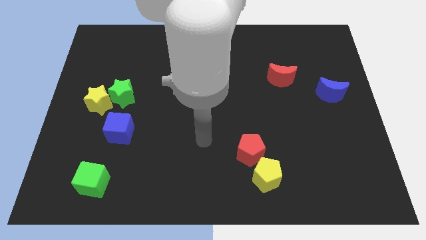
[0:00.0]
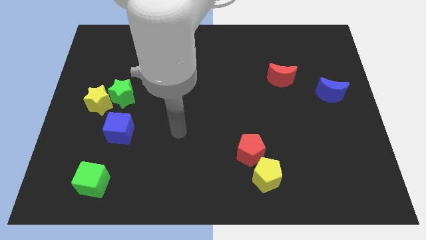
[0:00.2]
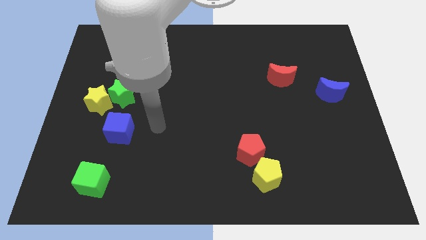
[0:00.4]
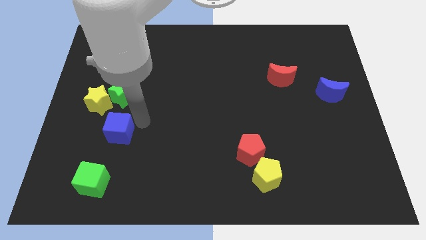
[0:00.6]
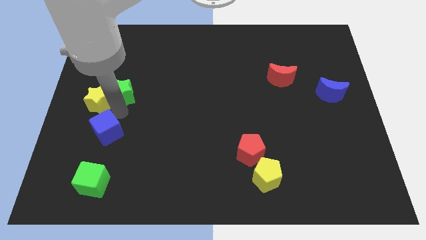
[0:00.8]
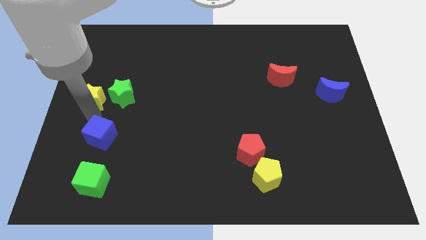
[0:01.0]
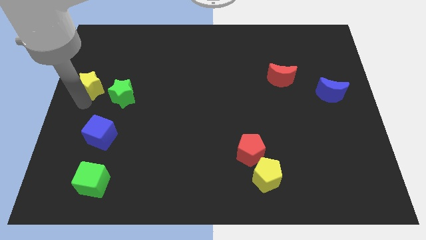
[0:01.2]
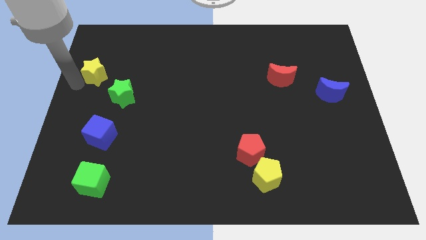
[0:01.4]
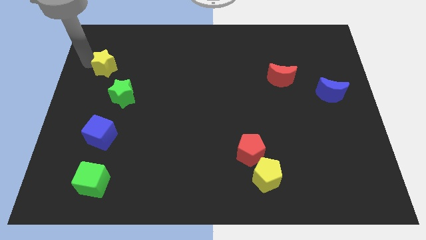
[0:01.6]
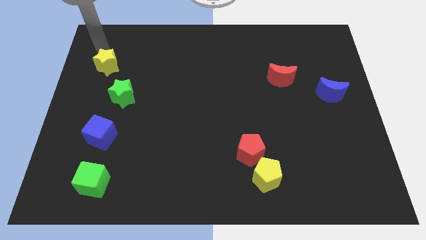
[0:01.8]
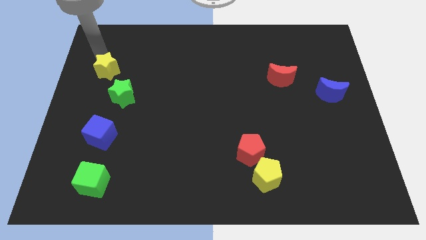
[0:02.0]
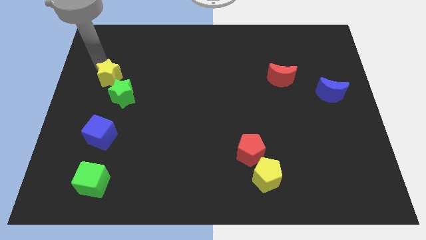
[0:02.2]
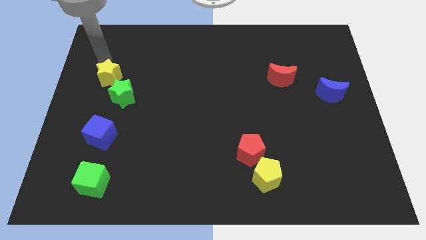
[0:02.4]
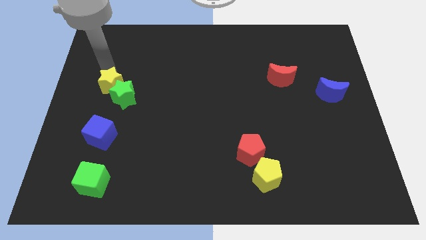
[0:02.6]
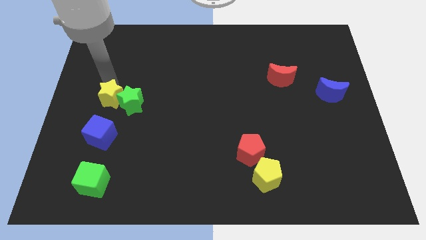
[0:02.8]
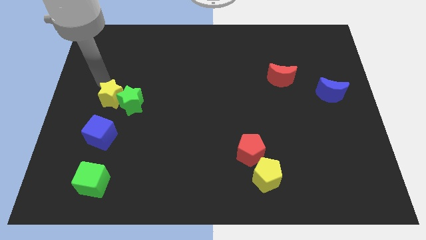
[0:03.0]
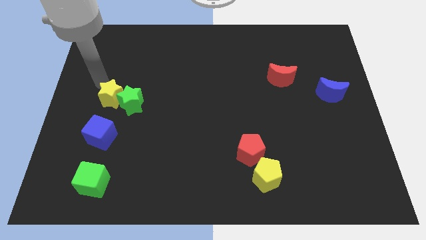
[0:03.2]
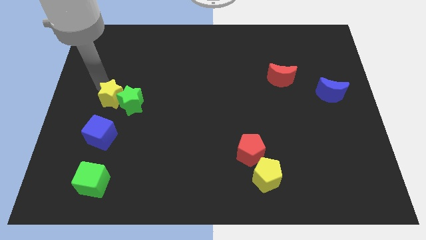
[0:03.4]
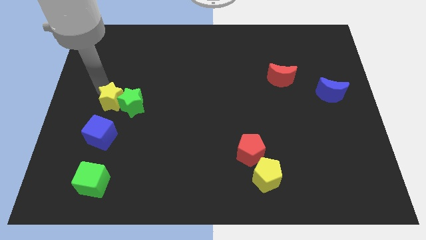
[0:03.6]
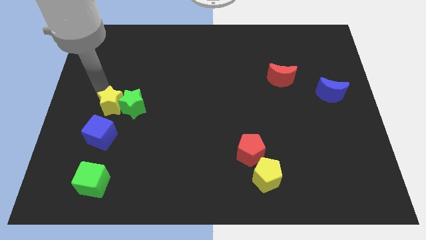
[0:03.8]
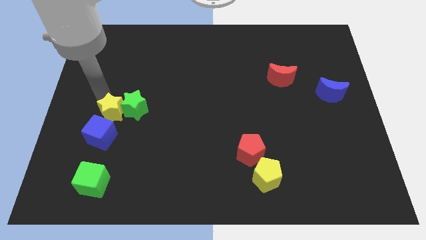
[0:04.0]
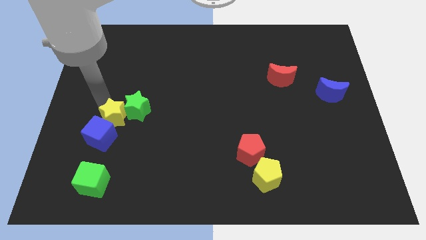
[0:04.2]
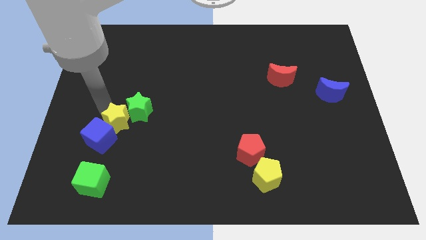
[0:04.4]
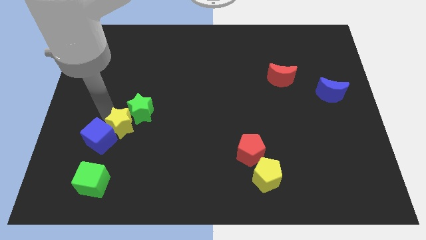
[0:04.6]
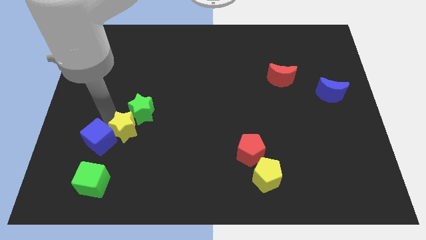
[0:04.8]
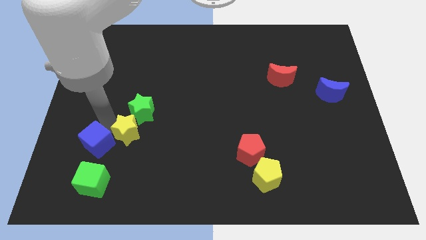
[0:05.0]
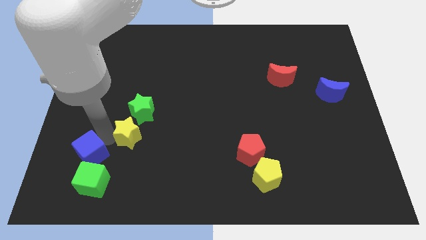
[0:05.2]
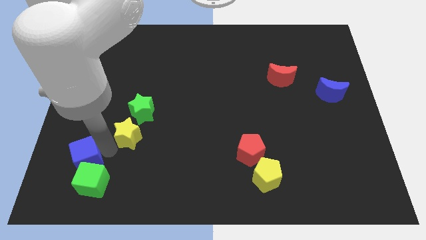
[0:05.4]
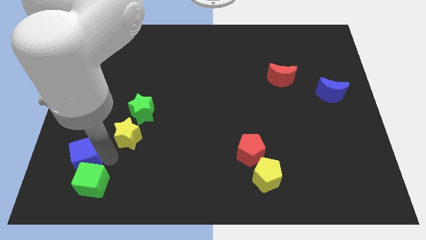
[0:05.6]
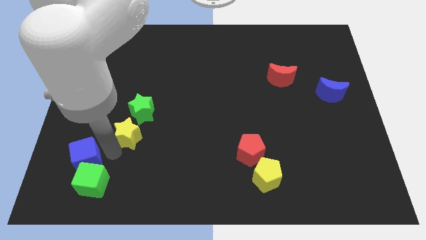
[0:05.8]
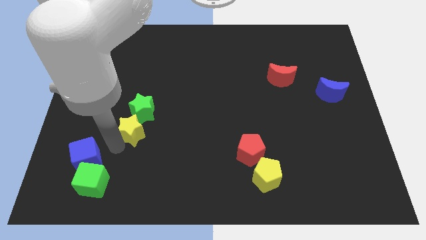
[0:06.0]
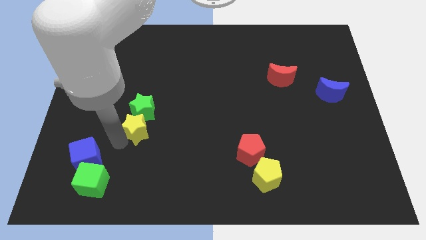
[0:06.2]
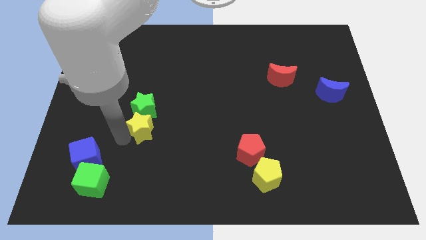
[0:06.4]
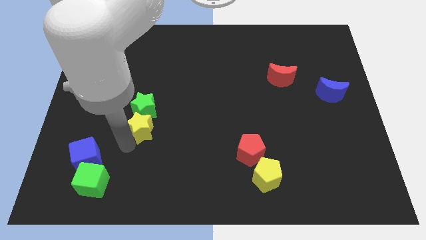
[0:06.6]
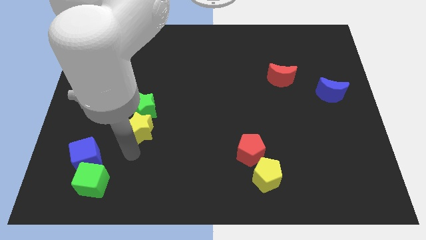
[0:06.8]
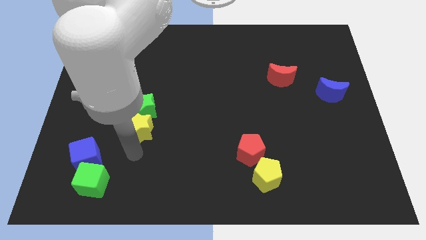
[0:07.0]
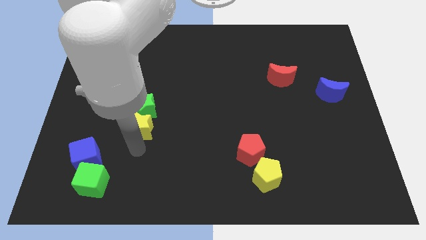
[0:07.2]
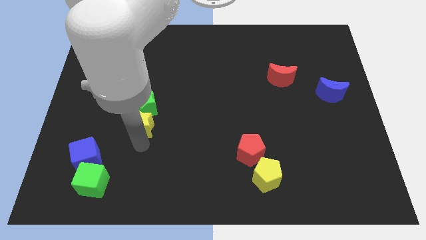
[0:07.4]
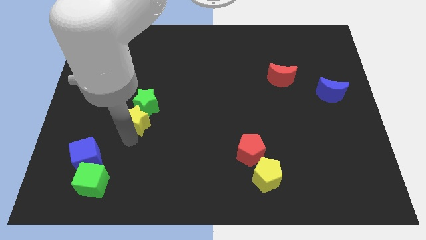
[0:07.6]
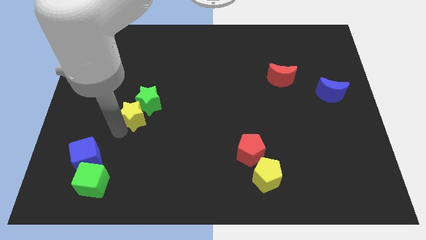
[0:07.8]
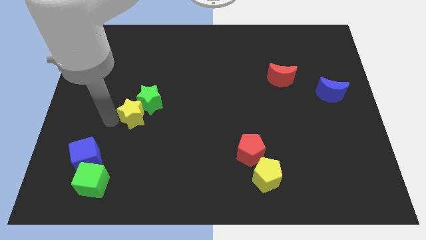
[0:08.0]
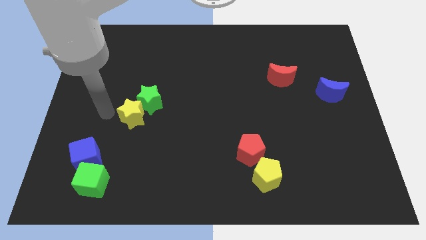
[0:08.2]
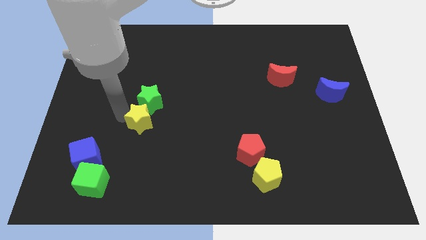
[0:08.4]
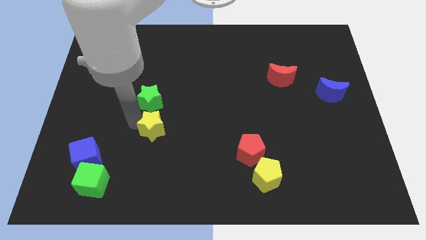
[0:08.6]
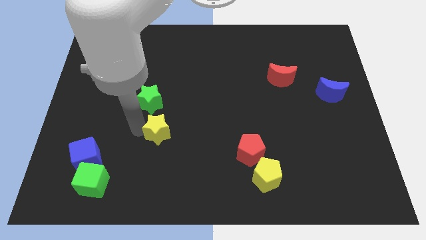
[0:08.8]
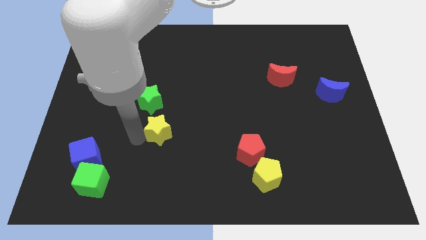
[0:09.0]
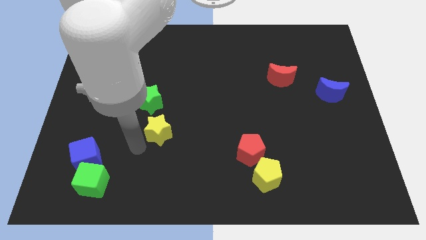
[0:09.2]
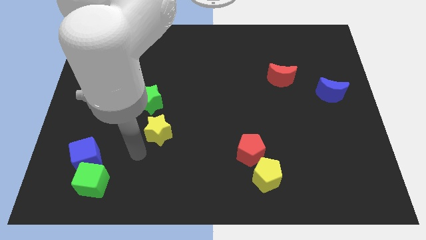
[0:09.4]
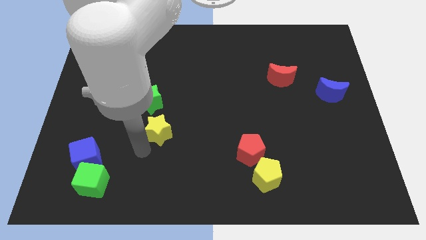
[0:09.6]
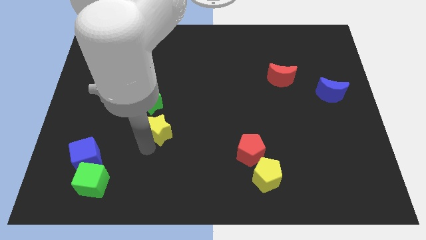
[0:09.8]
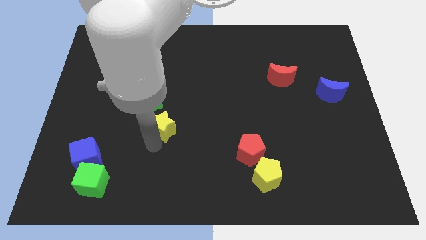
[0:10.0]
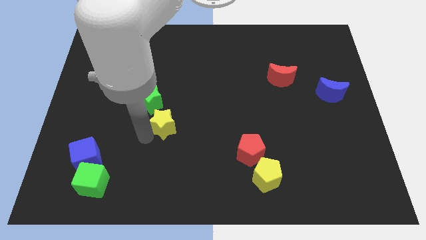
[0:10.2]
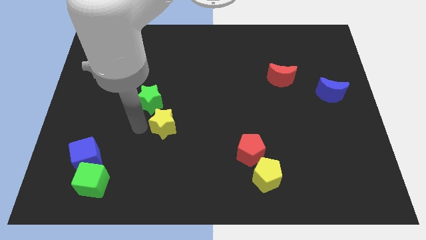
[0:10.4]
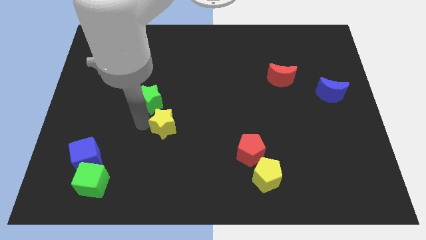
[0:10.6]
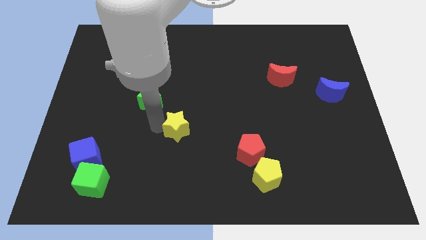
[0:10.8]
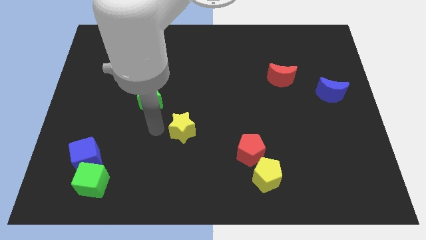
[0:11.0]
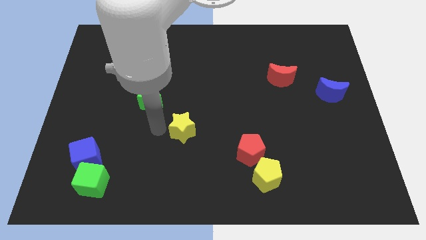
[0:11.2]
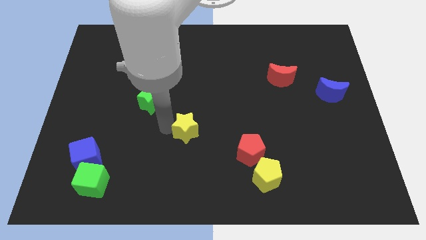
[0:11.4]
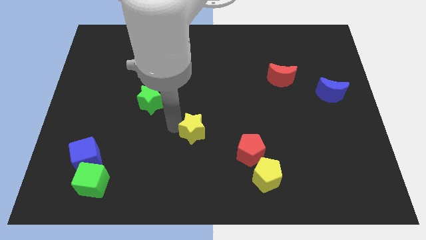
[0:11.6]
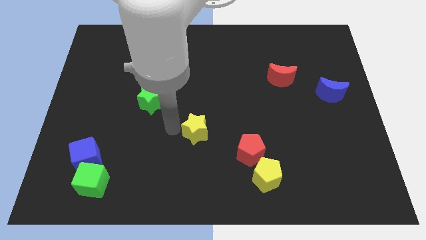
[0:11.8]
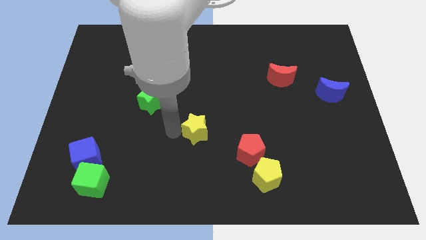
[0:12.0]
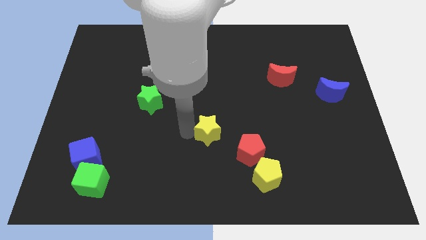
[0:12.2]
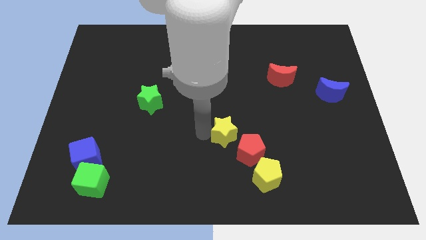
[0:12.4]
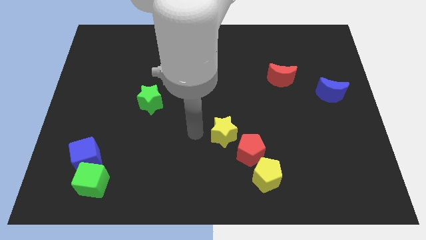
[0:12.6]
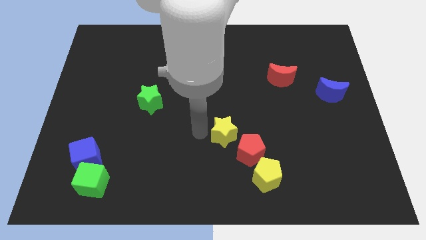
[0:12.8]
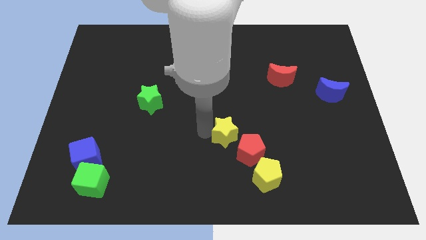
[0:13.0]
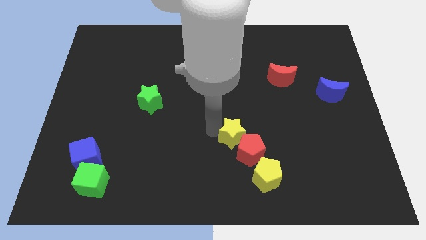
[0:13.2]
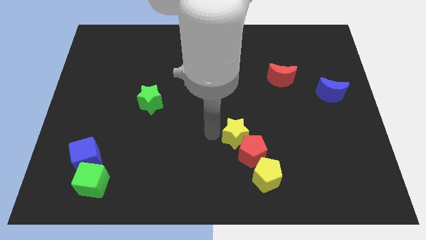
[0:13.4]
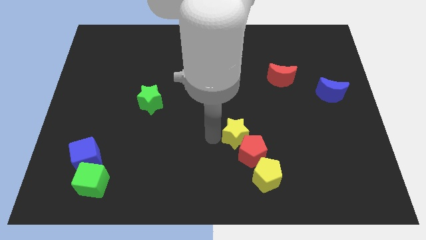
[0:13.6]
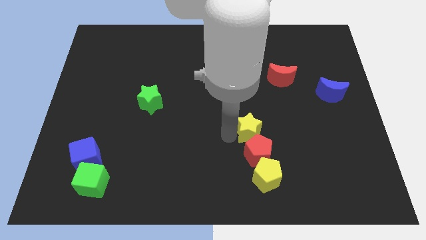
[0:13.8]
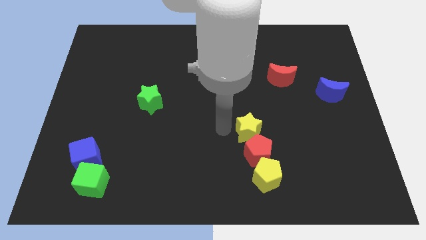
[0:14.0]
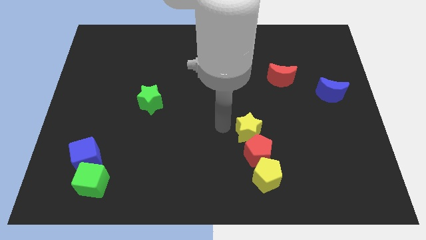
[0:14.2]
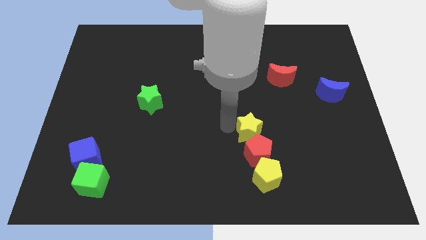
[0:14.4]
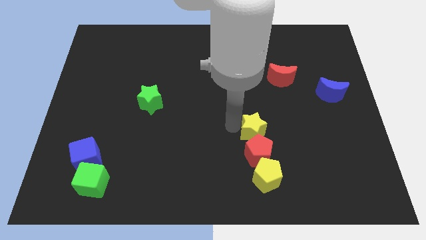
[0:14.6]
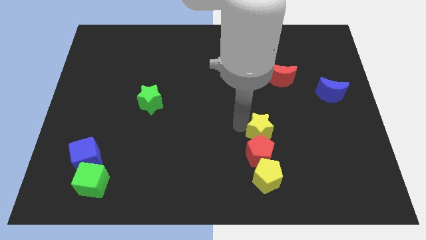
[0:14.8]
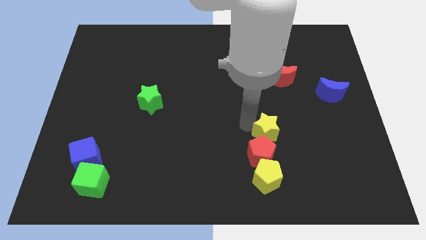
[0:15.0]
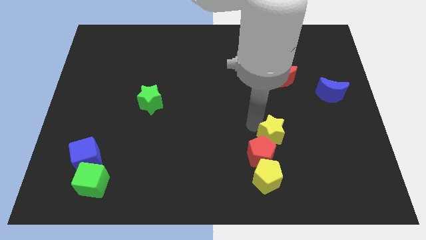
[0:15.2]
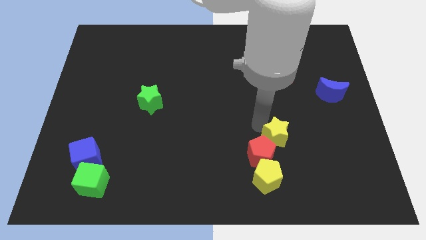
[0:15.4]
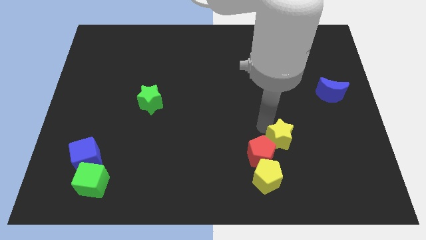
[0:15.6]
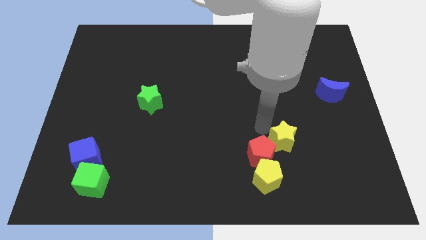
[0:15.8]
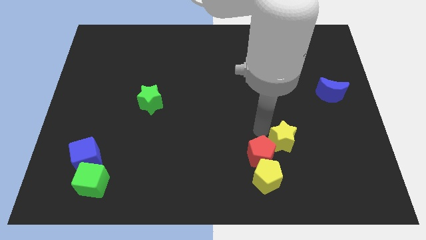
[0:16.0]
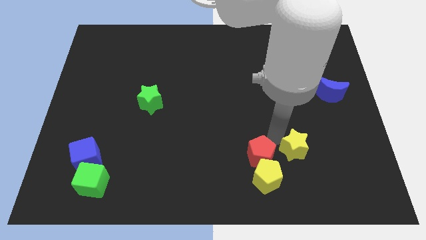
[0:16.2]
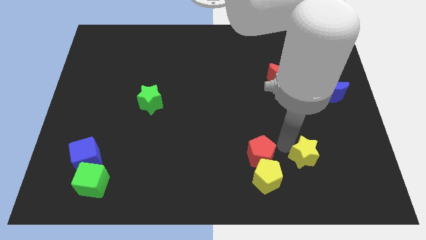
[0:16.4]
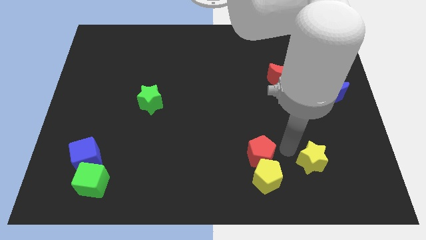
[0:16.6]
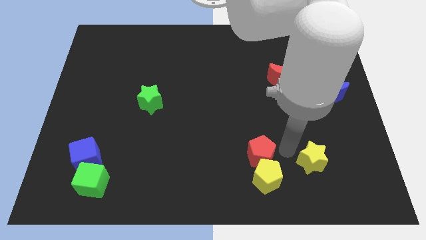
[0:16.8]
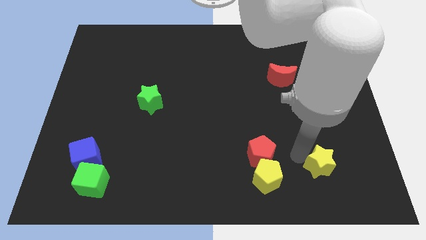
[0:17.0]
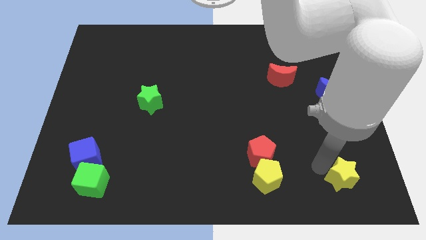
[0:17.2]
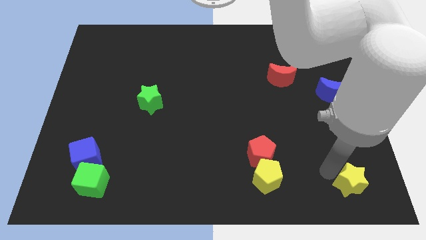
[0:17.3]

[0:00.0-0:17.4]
slide the yellow star to the bottom right corner
